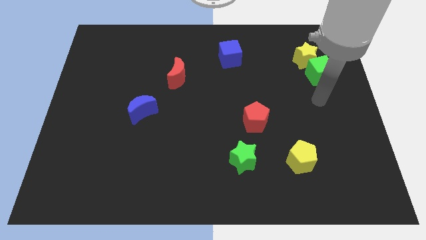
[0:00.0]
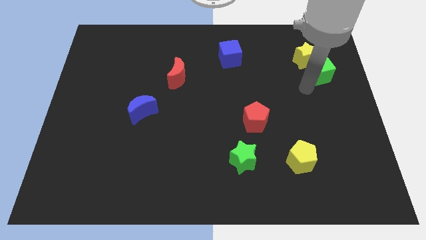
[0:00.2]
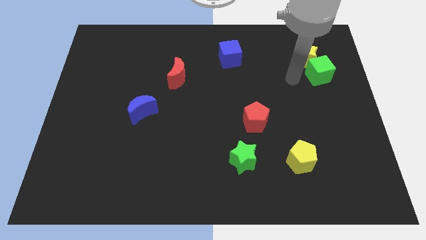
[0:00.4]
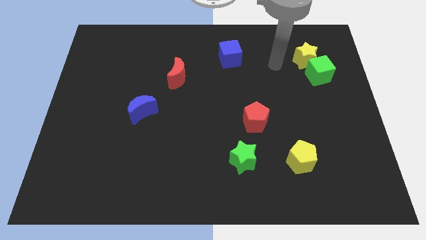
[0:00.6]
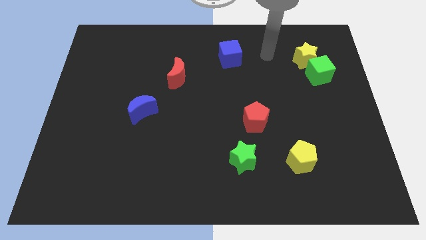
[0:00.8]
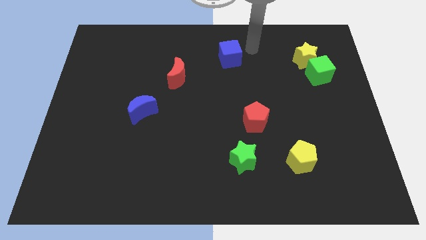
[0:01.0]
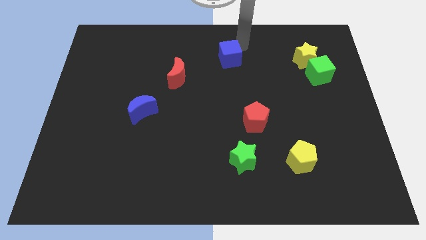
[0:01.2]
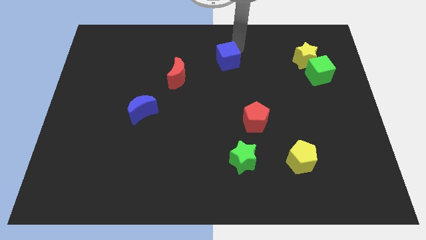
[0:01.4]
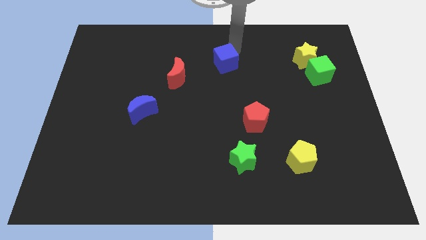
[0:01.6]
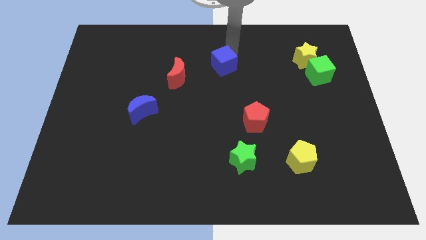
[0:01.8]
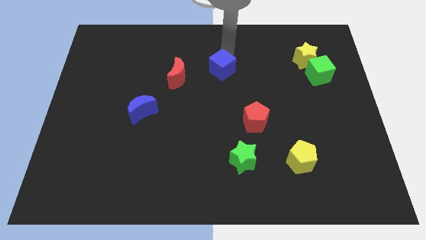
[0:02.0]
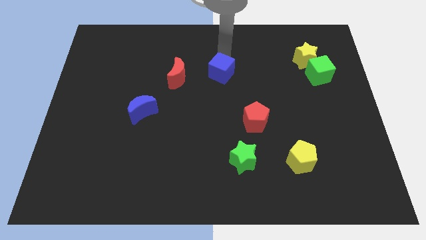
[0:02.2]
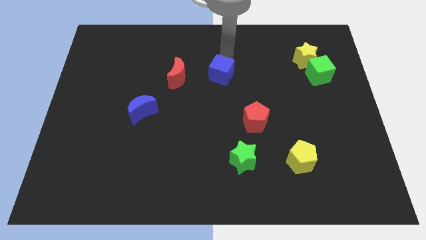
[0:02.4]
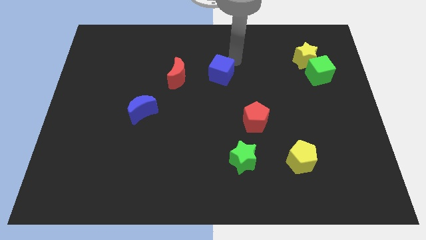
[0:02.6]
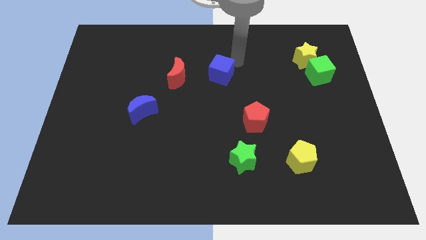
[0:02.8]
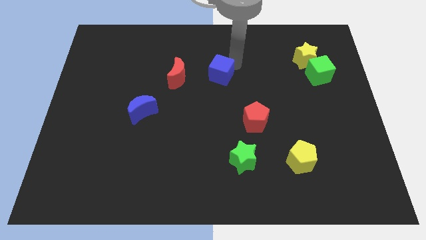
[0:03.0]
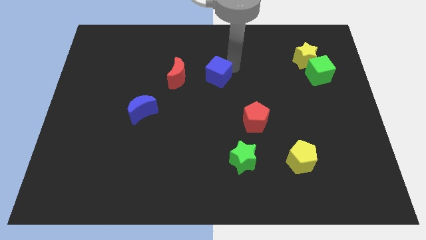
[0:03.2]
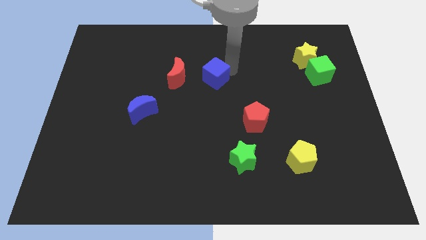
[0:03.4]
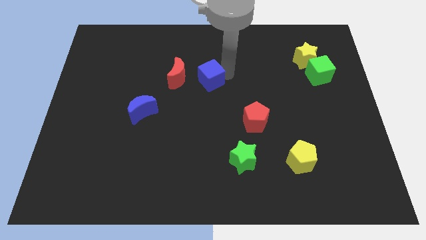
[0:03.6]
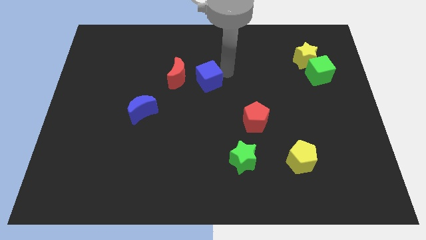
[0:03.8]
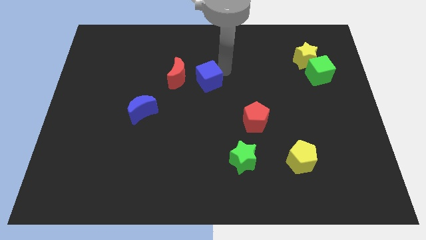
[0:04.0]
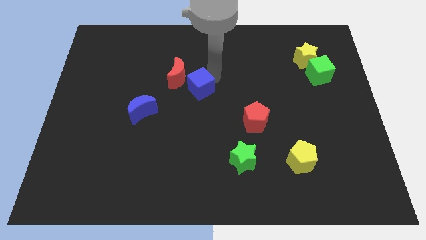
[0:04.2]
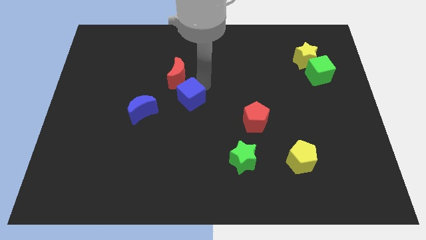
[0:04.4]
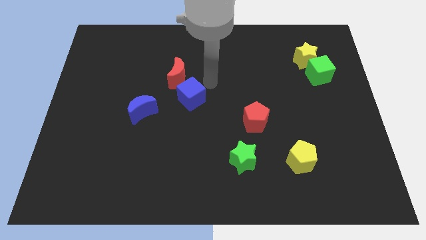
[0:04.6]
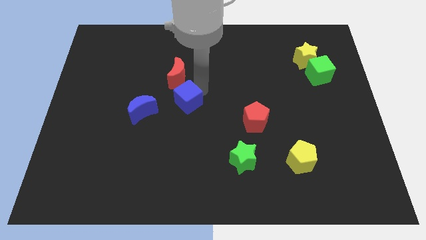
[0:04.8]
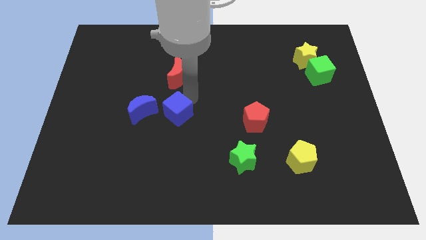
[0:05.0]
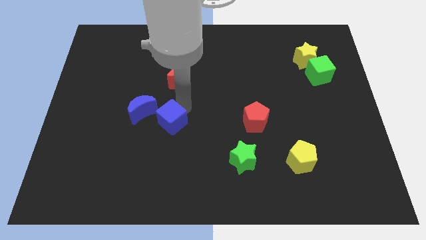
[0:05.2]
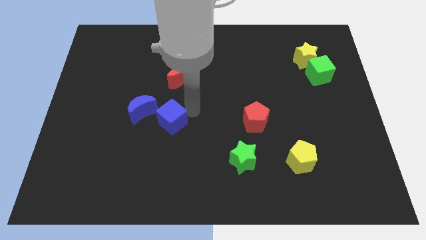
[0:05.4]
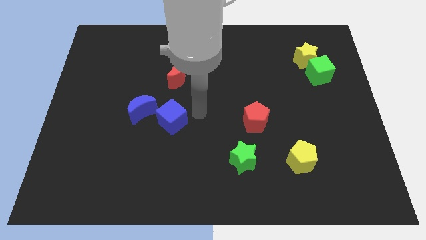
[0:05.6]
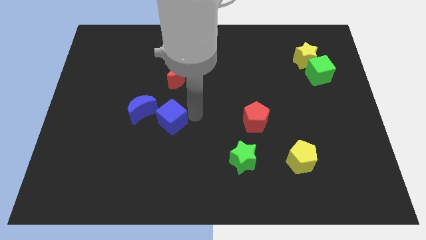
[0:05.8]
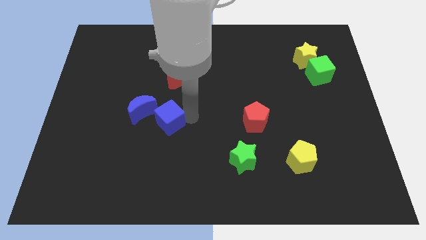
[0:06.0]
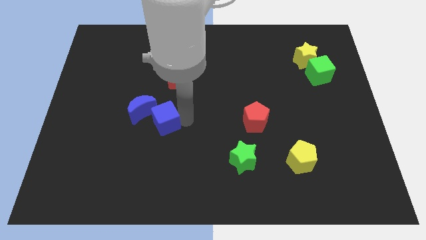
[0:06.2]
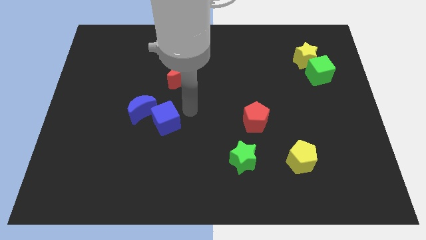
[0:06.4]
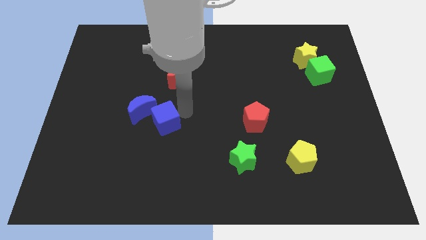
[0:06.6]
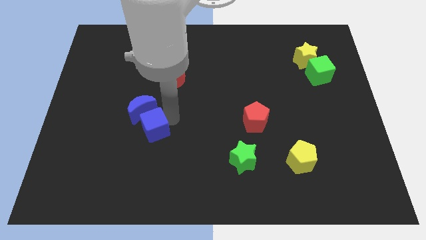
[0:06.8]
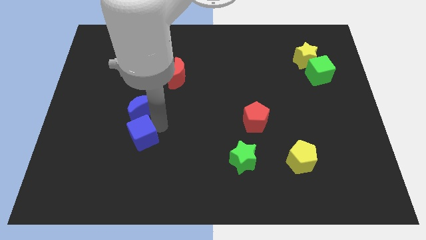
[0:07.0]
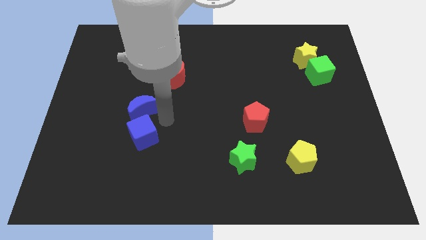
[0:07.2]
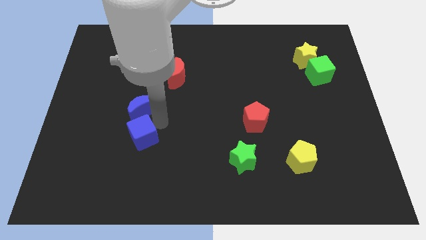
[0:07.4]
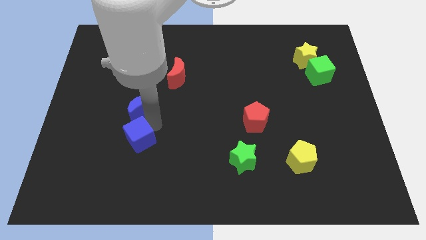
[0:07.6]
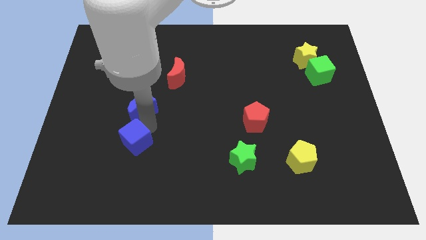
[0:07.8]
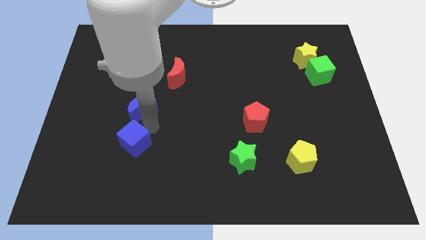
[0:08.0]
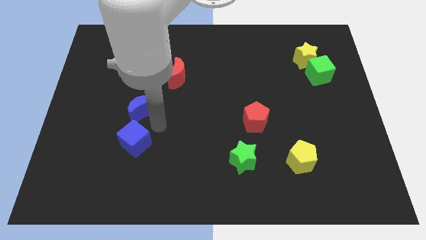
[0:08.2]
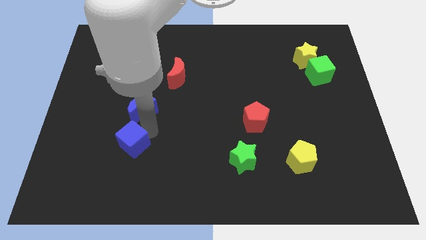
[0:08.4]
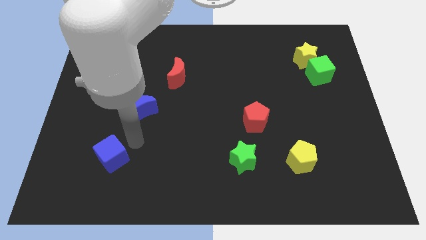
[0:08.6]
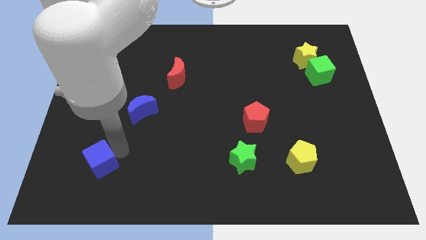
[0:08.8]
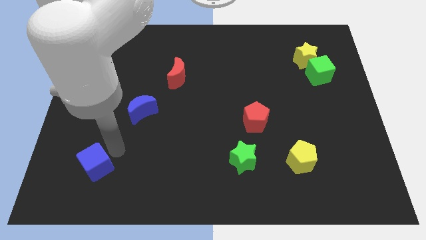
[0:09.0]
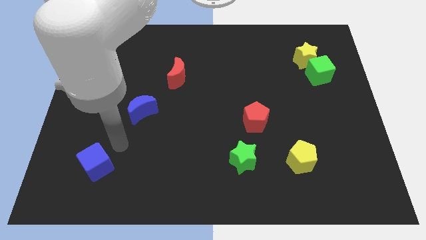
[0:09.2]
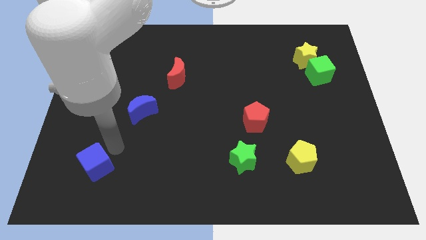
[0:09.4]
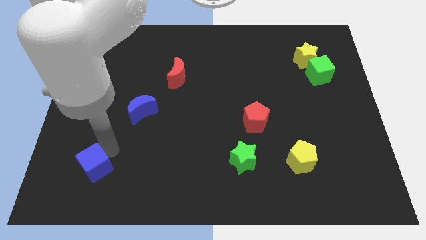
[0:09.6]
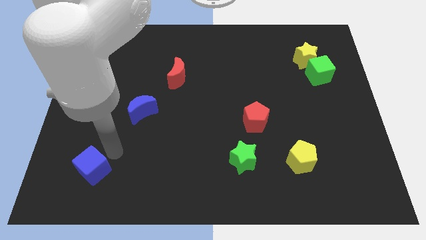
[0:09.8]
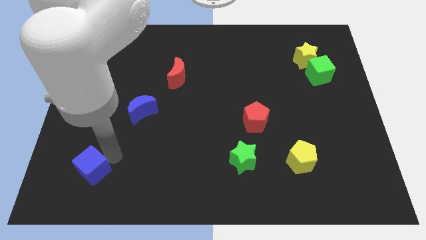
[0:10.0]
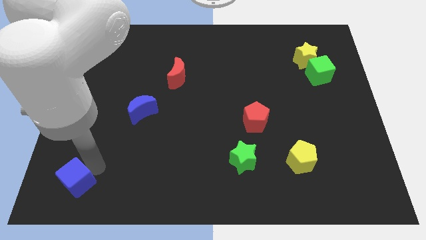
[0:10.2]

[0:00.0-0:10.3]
put the blue cube to the bottom left
